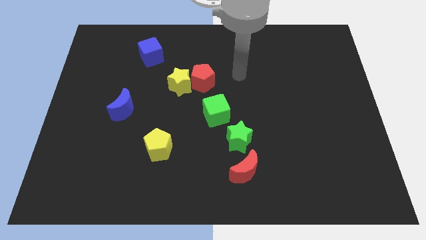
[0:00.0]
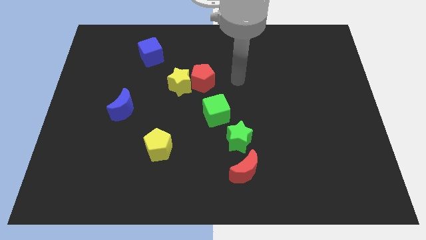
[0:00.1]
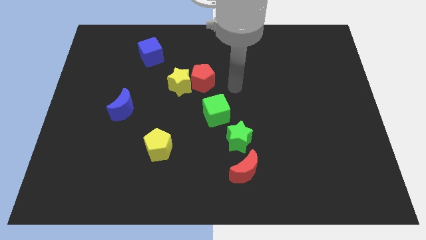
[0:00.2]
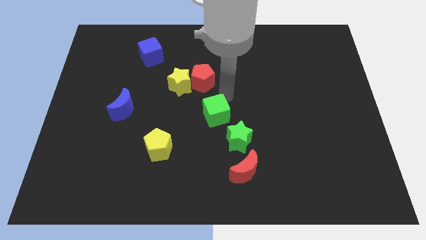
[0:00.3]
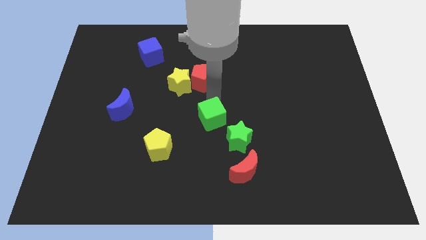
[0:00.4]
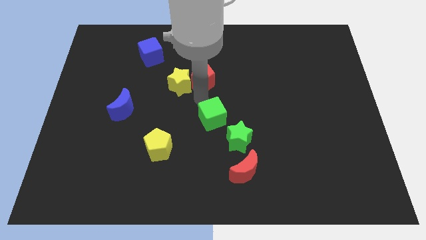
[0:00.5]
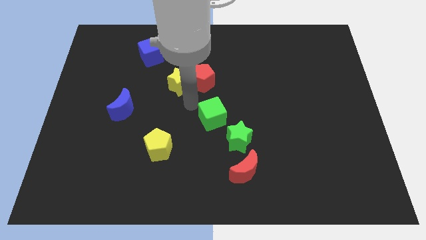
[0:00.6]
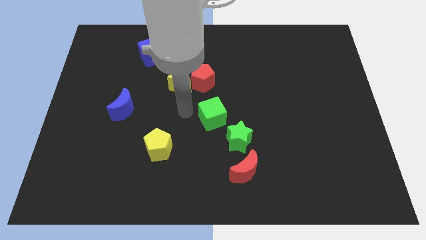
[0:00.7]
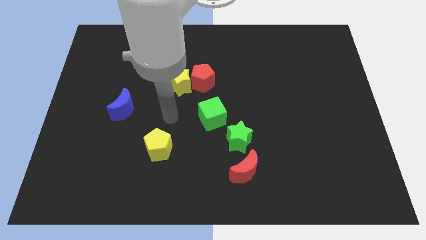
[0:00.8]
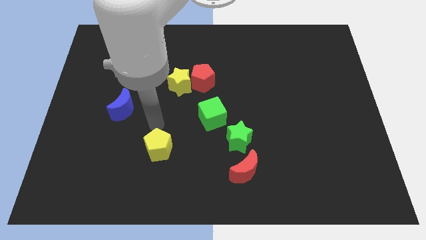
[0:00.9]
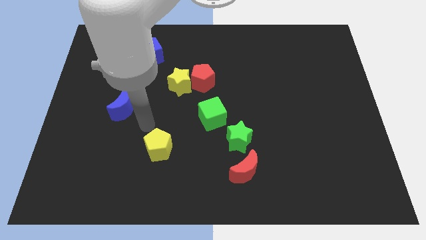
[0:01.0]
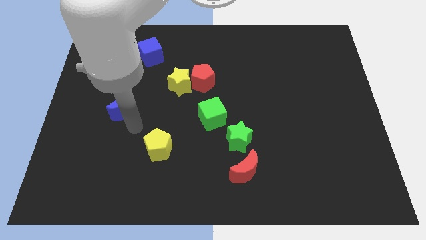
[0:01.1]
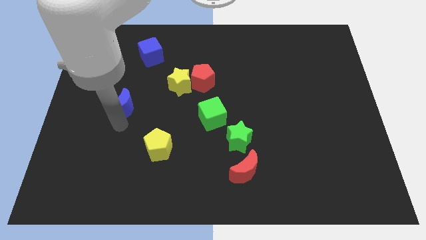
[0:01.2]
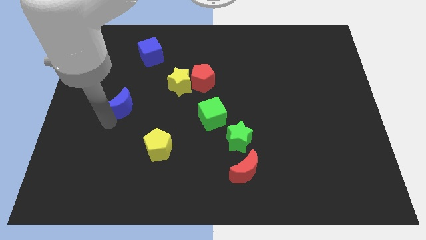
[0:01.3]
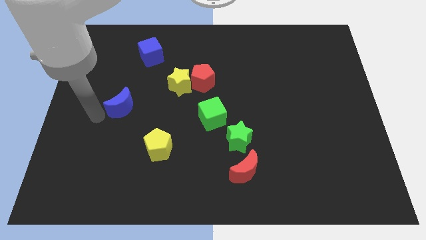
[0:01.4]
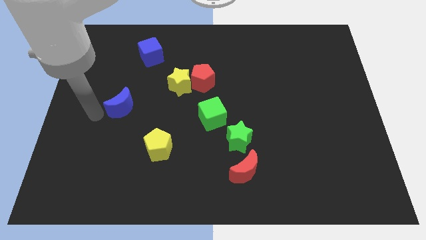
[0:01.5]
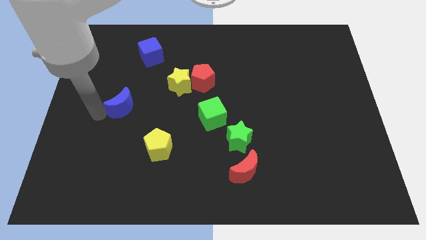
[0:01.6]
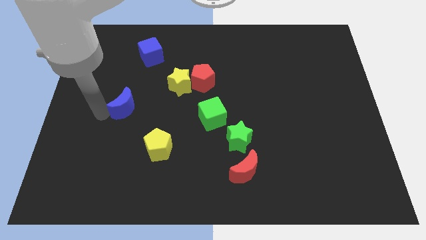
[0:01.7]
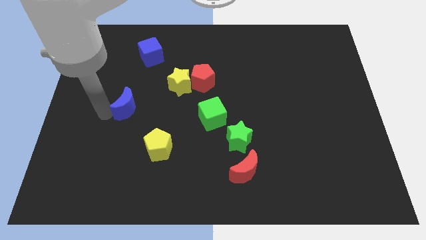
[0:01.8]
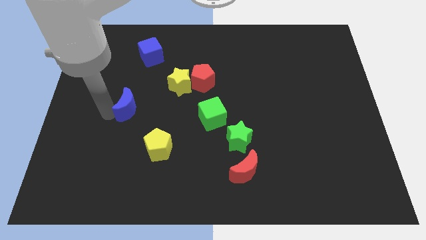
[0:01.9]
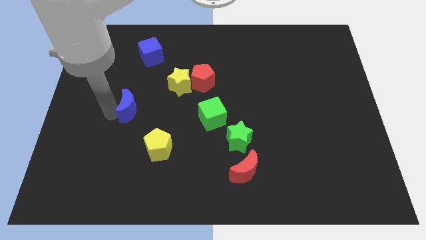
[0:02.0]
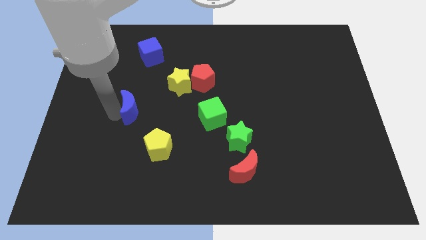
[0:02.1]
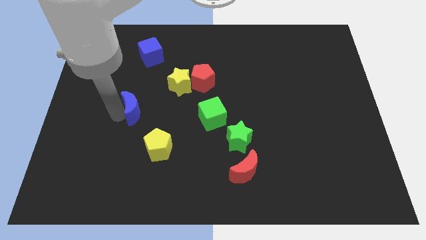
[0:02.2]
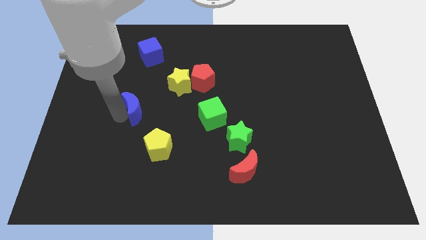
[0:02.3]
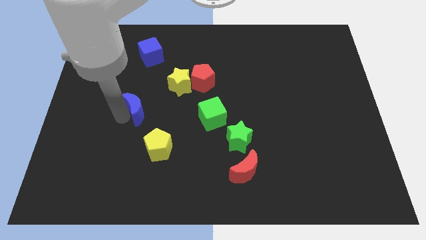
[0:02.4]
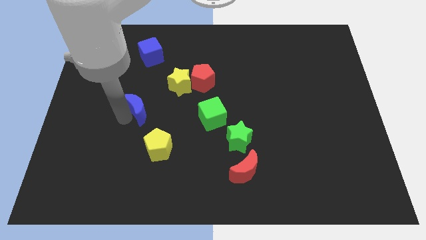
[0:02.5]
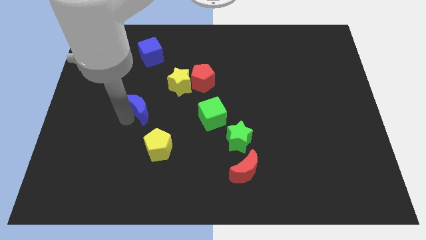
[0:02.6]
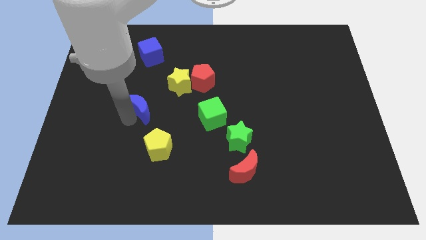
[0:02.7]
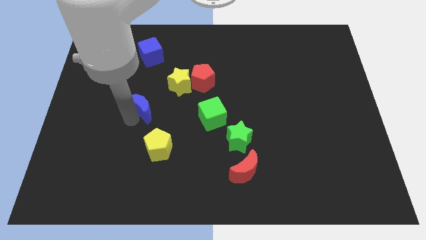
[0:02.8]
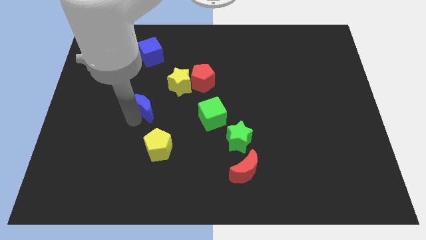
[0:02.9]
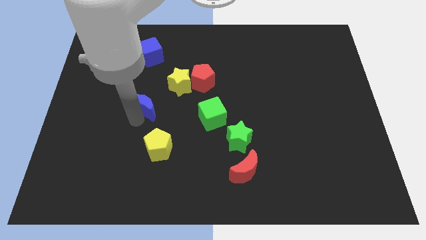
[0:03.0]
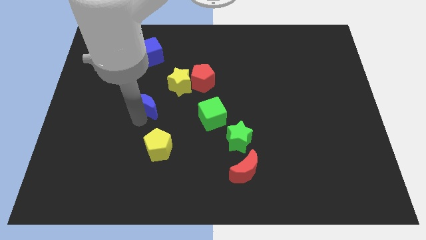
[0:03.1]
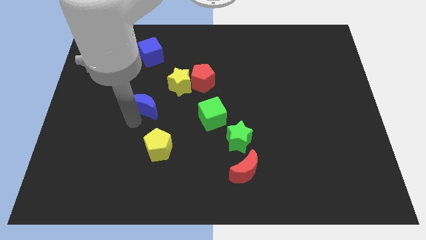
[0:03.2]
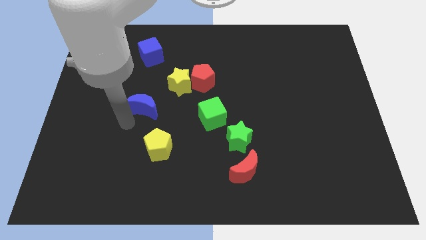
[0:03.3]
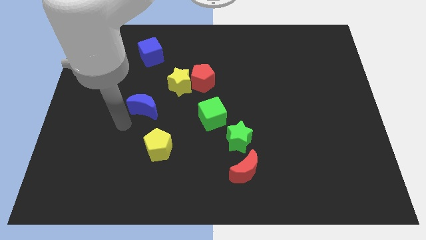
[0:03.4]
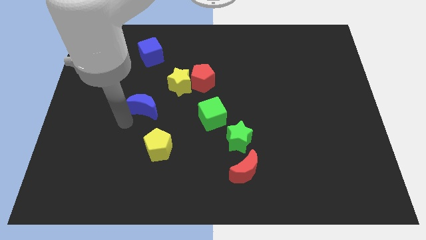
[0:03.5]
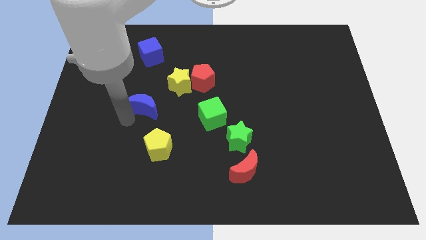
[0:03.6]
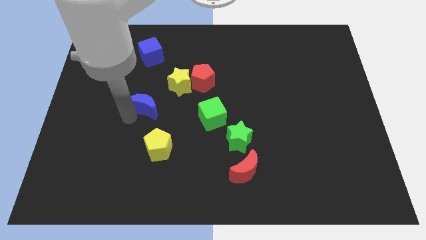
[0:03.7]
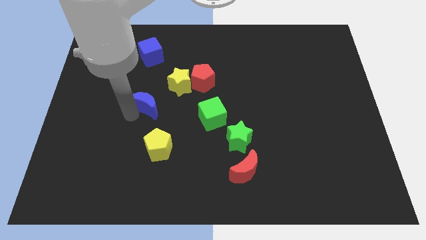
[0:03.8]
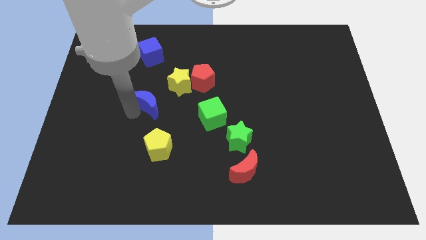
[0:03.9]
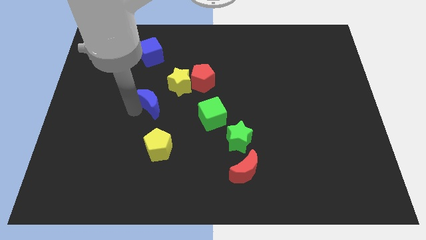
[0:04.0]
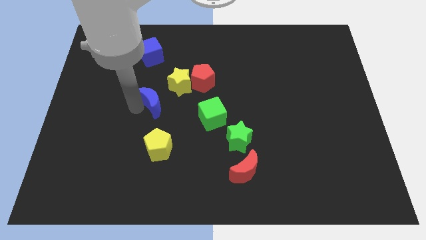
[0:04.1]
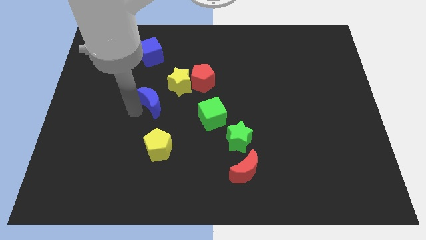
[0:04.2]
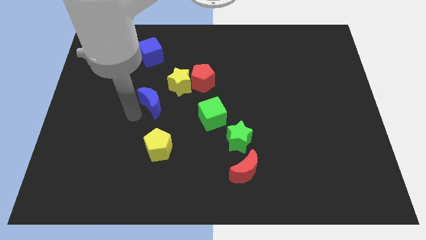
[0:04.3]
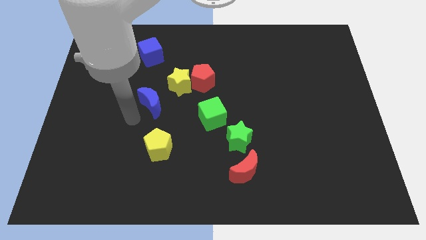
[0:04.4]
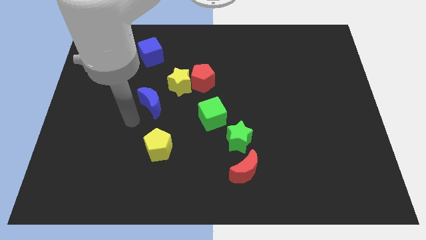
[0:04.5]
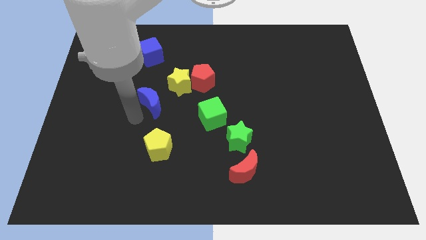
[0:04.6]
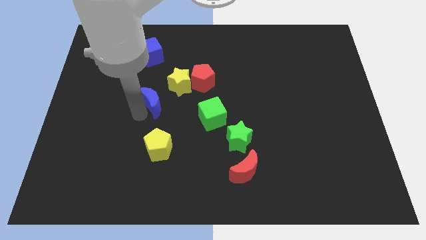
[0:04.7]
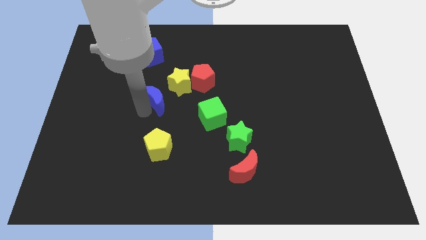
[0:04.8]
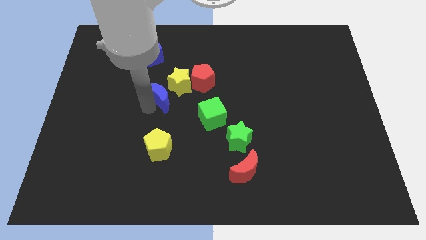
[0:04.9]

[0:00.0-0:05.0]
slide the blue moon close to the yellow star

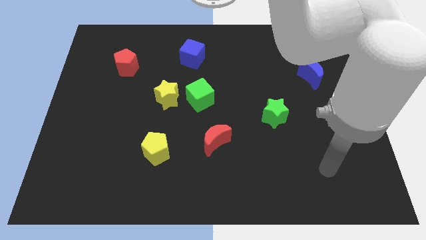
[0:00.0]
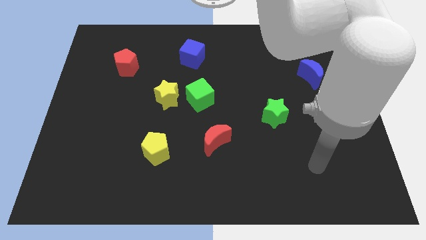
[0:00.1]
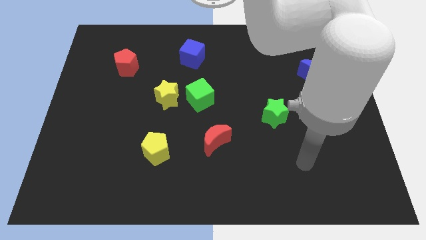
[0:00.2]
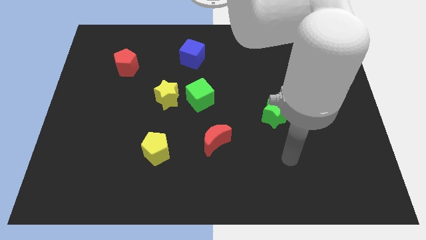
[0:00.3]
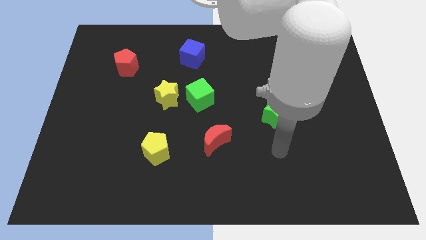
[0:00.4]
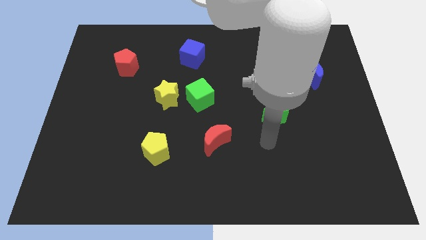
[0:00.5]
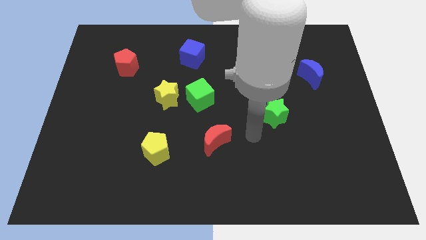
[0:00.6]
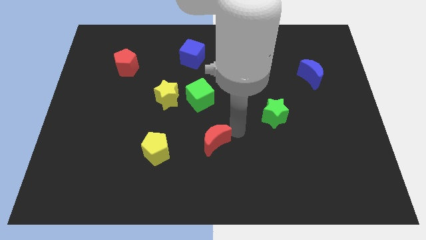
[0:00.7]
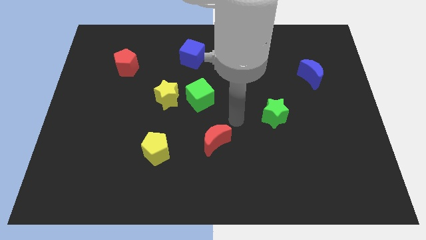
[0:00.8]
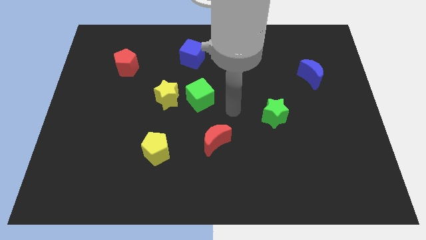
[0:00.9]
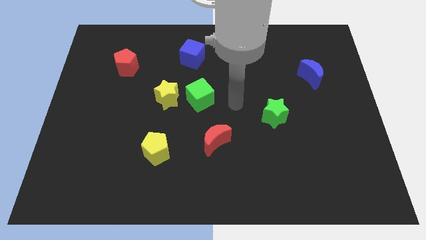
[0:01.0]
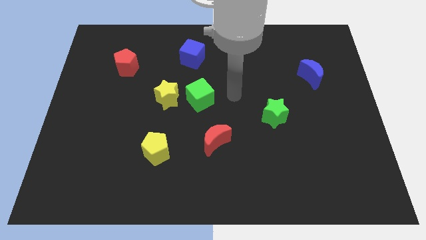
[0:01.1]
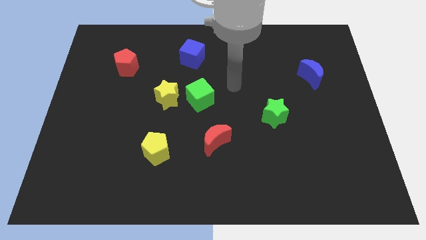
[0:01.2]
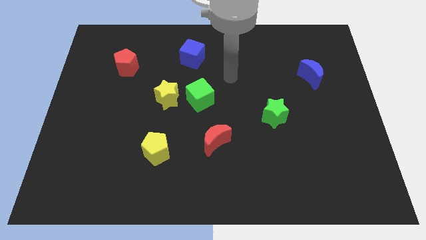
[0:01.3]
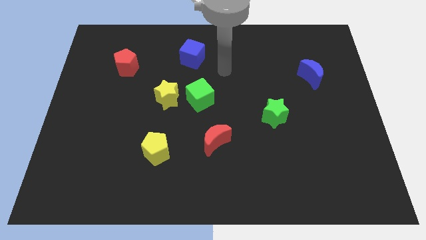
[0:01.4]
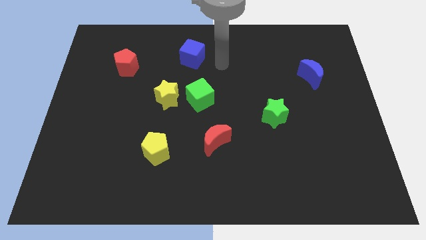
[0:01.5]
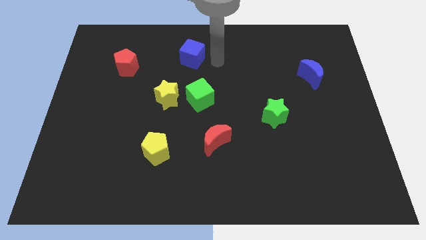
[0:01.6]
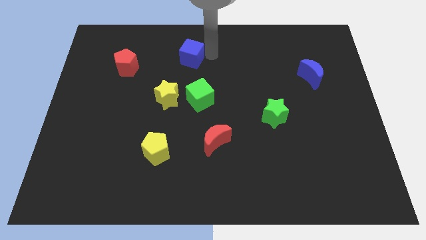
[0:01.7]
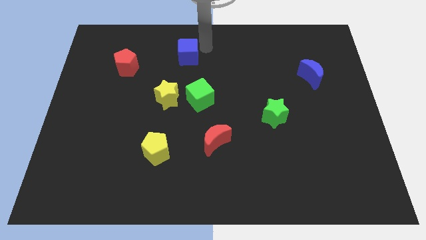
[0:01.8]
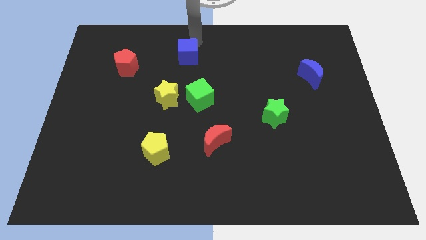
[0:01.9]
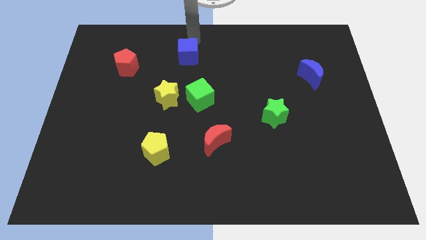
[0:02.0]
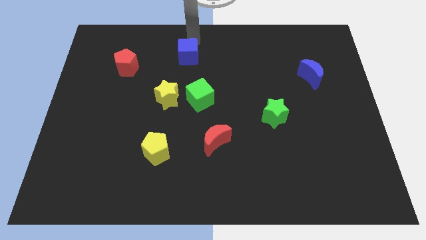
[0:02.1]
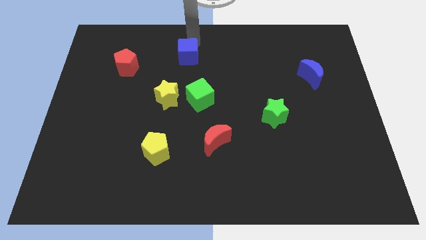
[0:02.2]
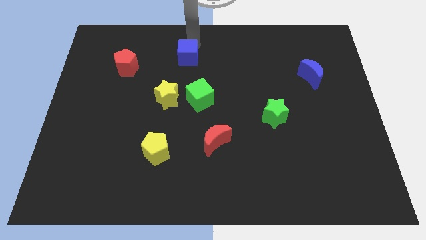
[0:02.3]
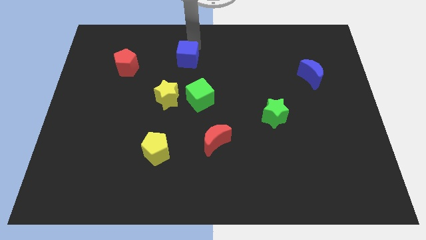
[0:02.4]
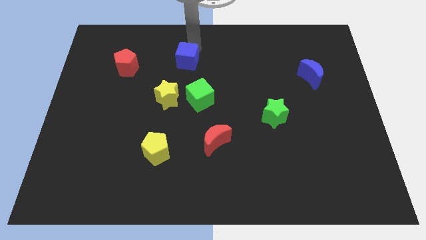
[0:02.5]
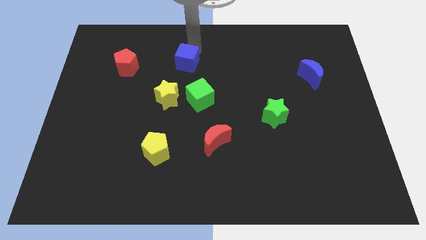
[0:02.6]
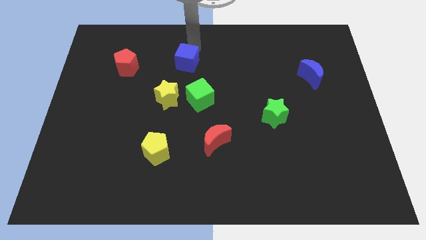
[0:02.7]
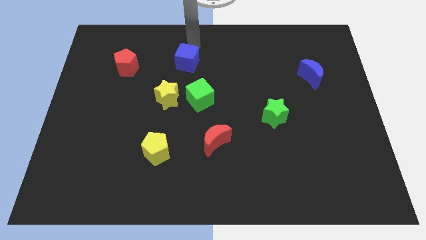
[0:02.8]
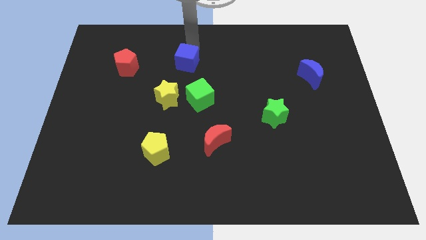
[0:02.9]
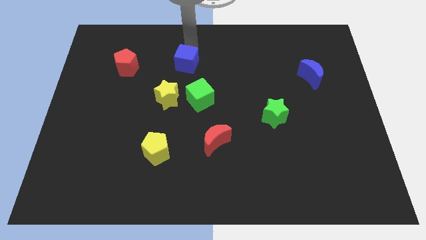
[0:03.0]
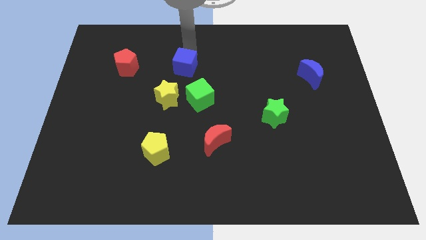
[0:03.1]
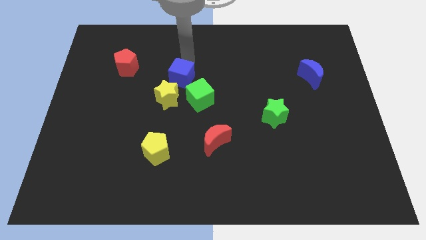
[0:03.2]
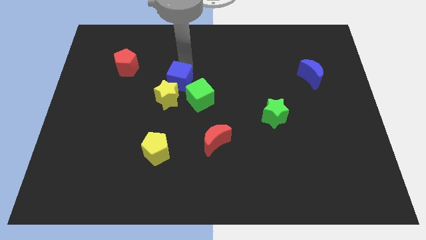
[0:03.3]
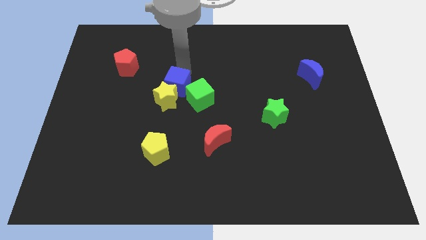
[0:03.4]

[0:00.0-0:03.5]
push the blue cube next to the yellow star
